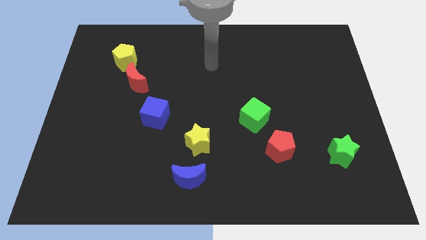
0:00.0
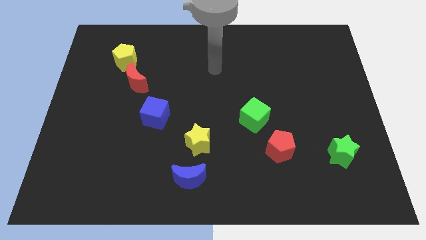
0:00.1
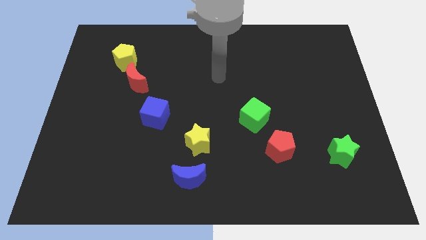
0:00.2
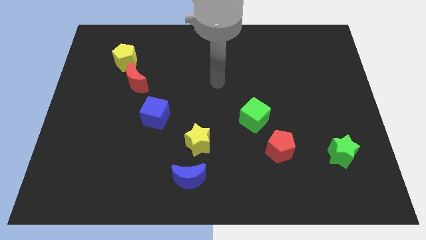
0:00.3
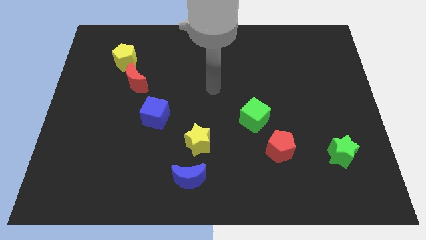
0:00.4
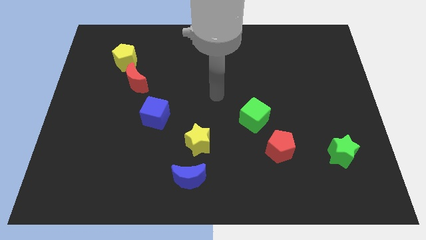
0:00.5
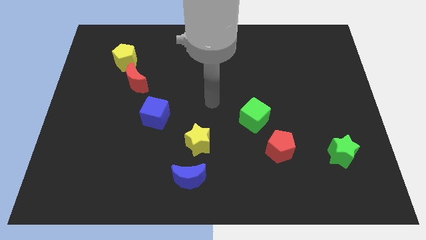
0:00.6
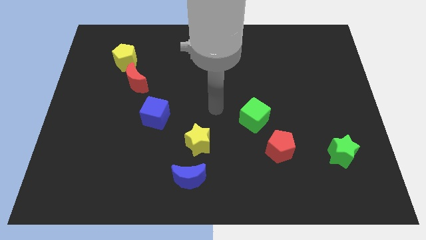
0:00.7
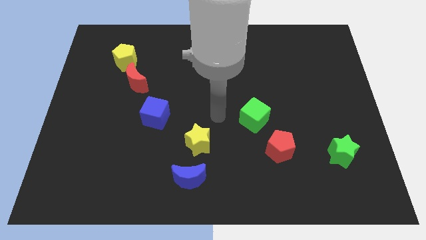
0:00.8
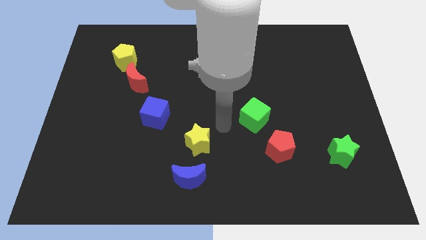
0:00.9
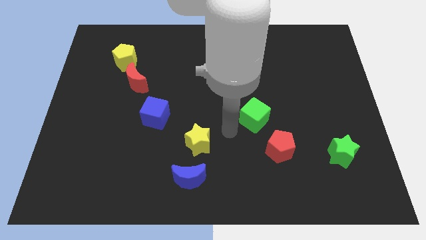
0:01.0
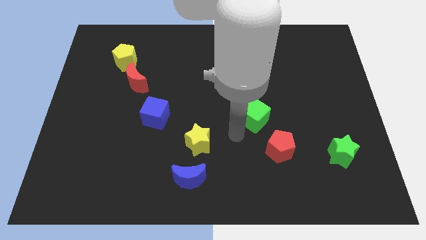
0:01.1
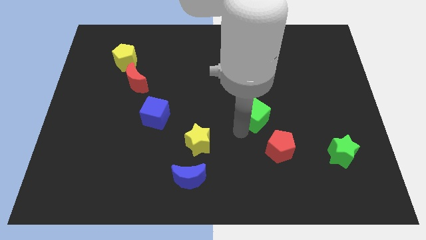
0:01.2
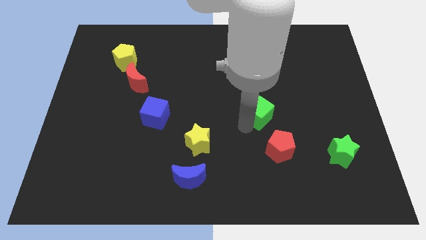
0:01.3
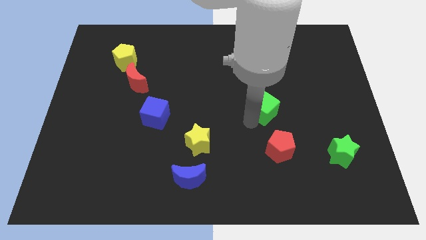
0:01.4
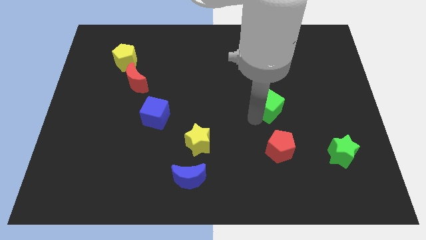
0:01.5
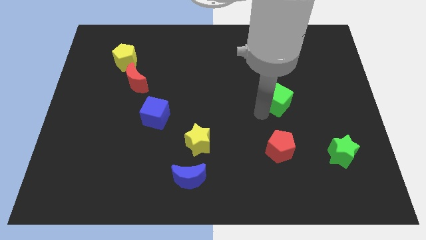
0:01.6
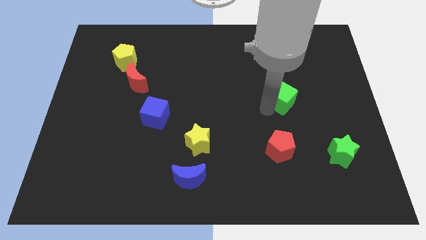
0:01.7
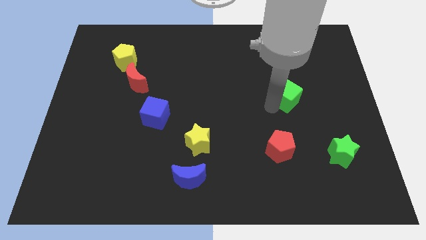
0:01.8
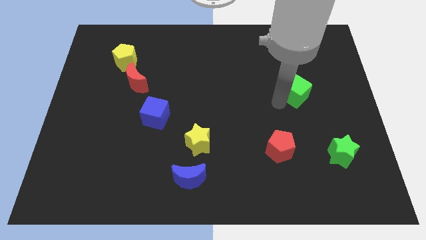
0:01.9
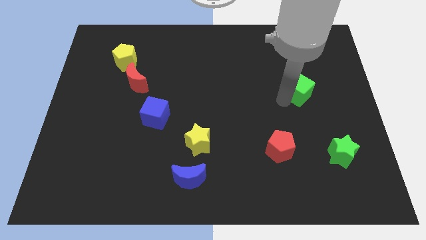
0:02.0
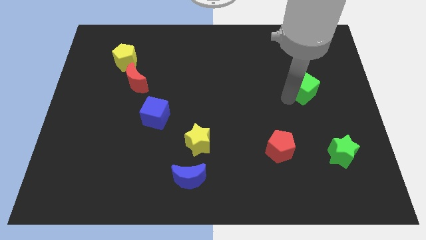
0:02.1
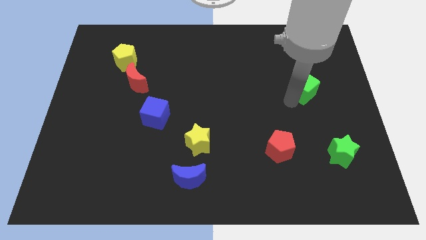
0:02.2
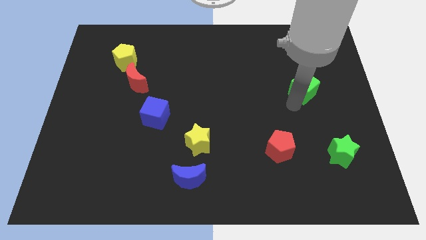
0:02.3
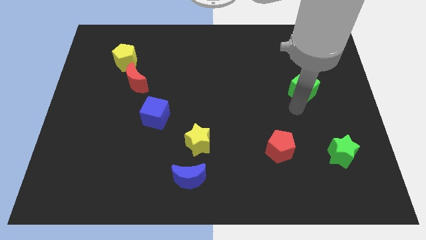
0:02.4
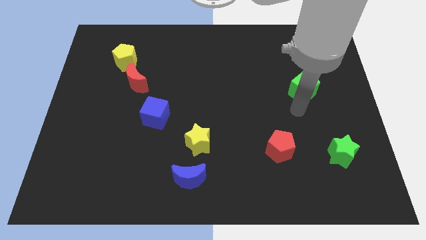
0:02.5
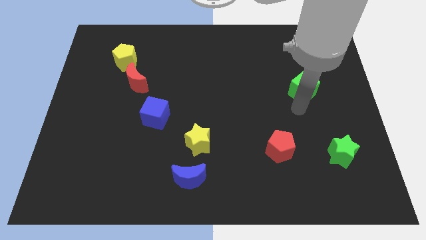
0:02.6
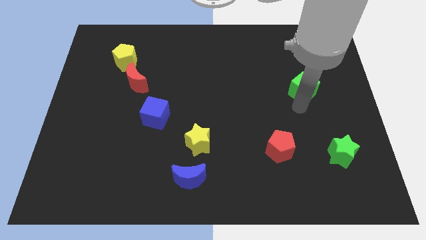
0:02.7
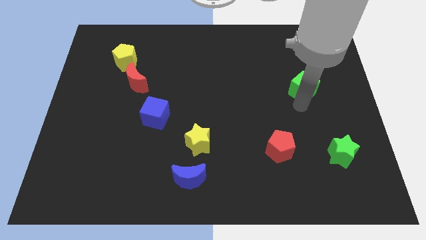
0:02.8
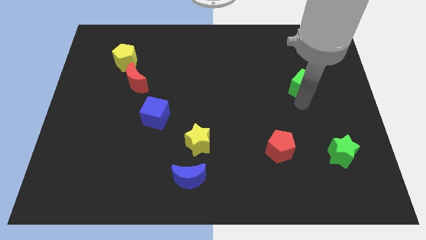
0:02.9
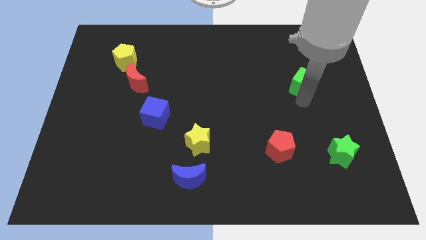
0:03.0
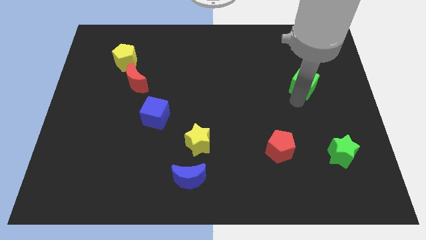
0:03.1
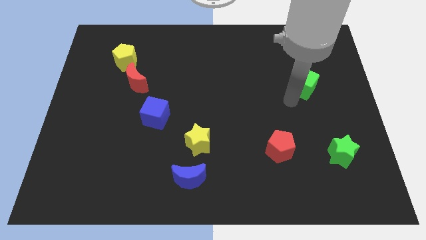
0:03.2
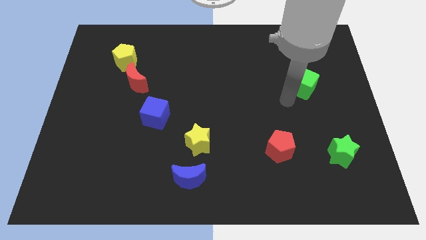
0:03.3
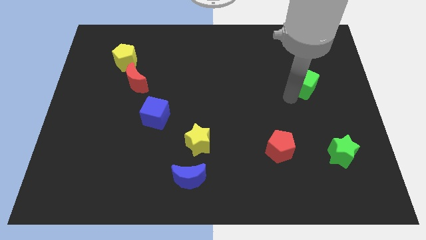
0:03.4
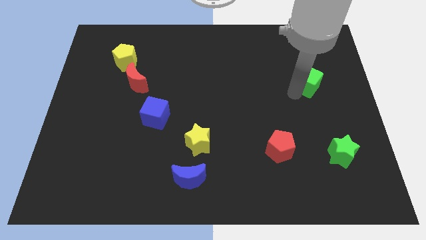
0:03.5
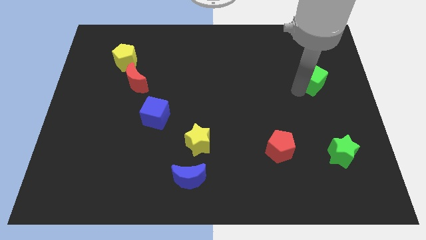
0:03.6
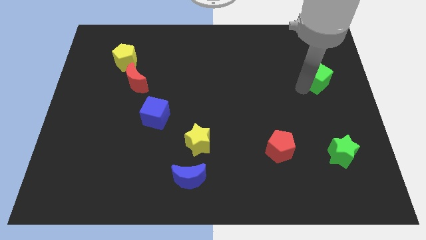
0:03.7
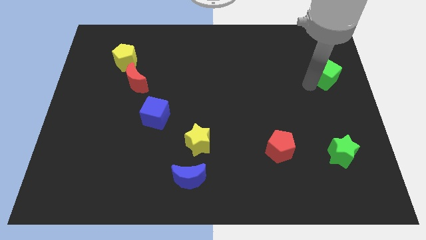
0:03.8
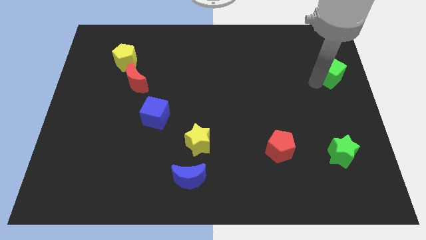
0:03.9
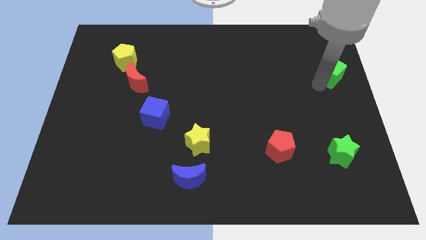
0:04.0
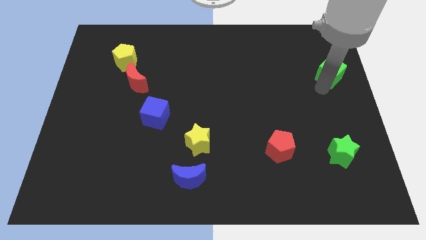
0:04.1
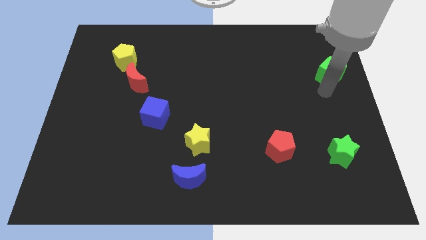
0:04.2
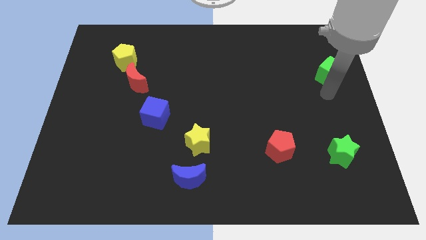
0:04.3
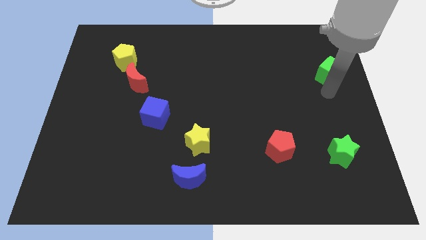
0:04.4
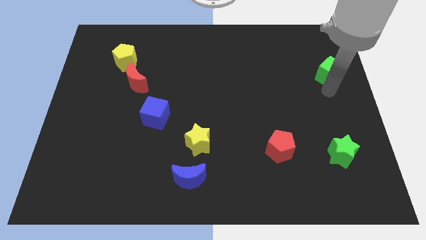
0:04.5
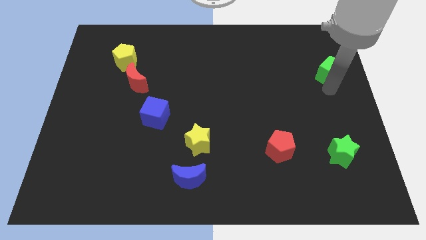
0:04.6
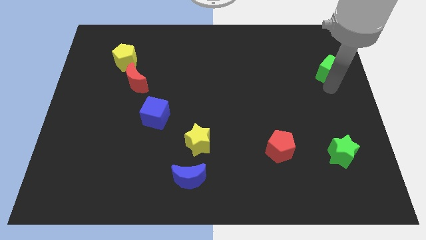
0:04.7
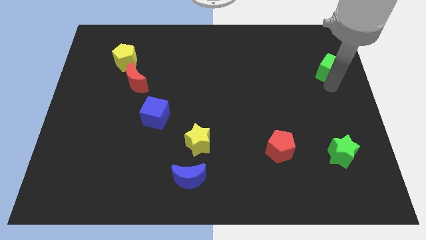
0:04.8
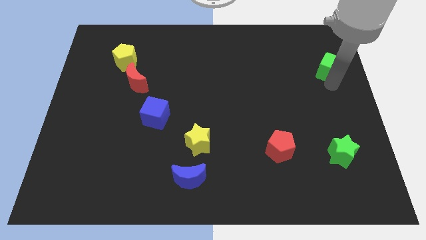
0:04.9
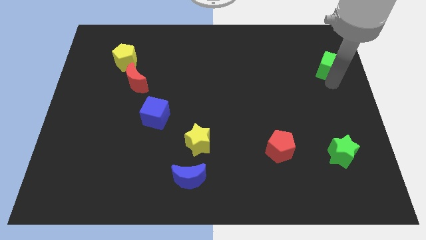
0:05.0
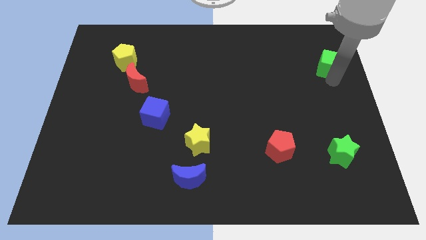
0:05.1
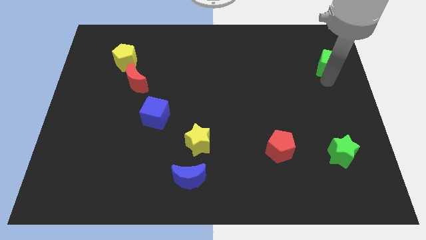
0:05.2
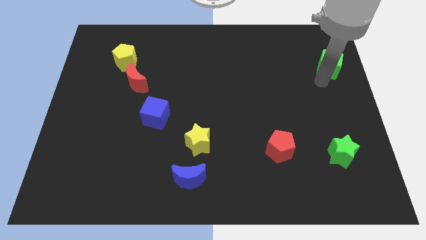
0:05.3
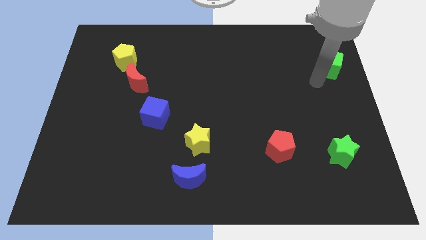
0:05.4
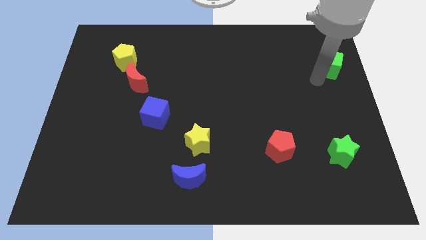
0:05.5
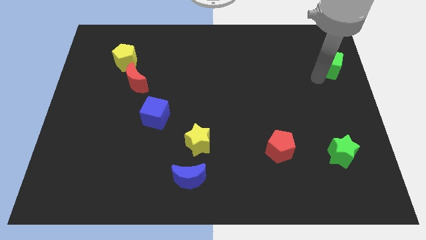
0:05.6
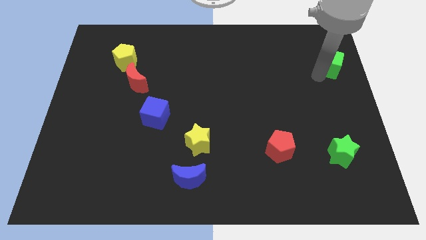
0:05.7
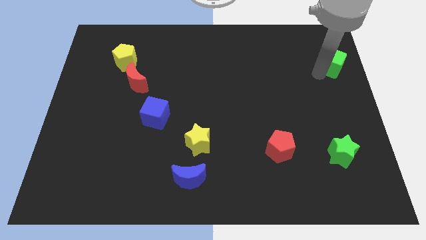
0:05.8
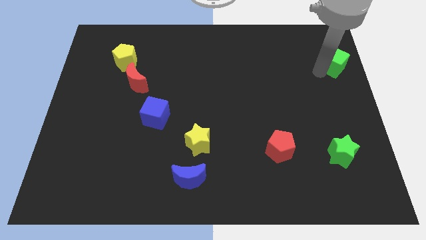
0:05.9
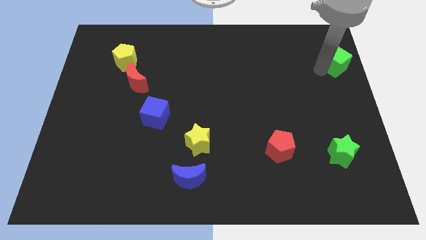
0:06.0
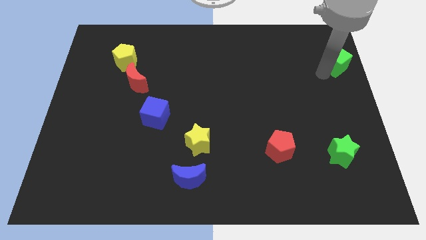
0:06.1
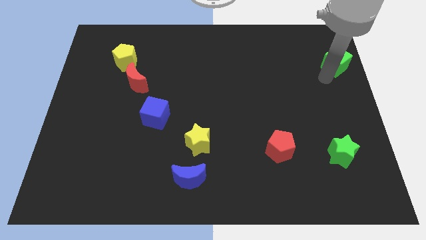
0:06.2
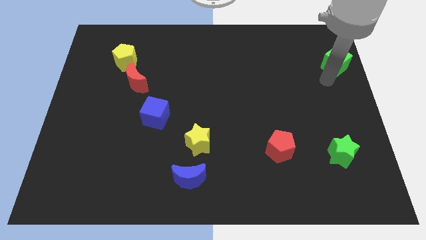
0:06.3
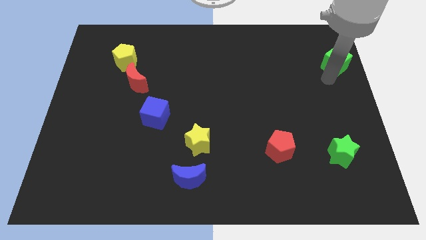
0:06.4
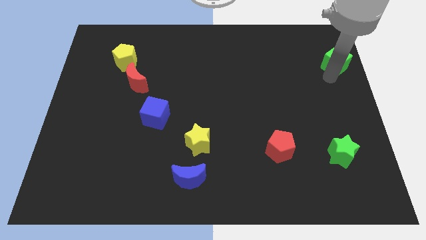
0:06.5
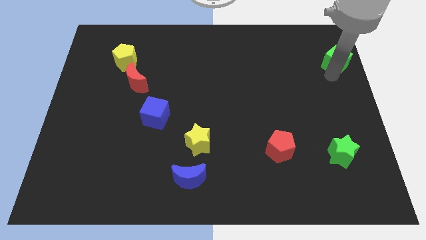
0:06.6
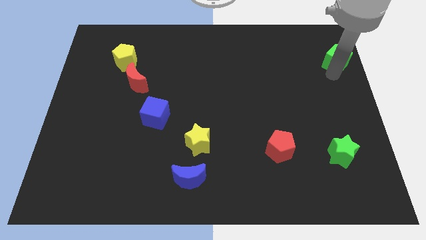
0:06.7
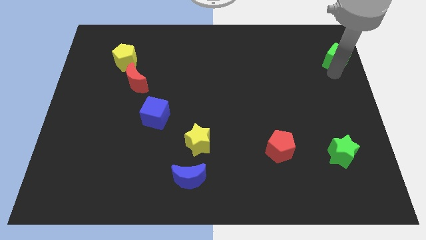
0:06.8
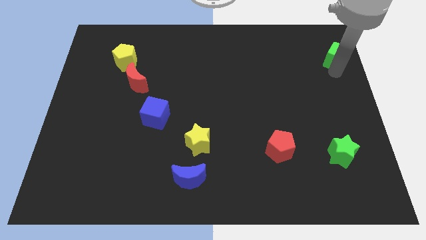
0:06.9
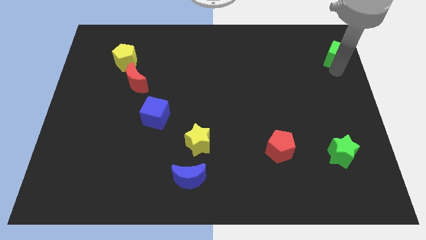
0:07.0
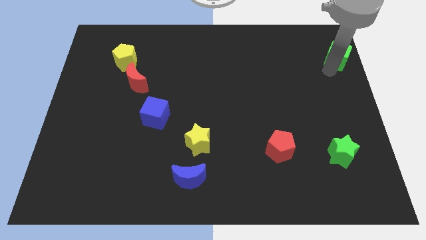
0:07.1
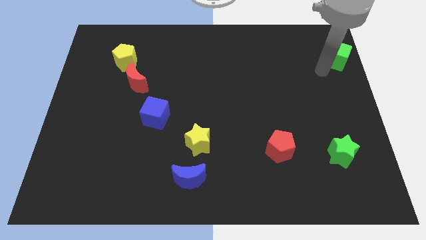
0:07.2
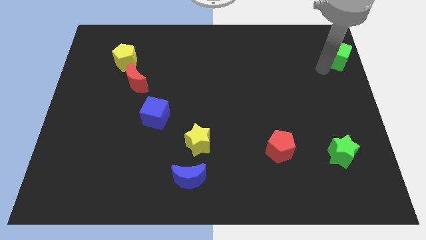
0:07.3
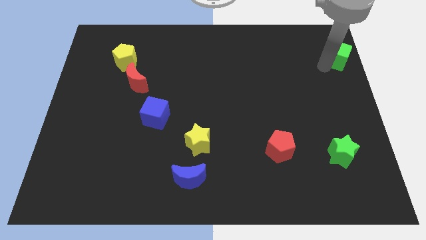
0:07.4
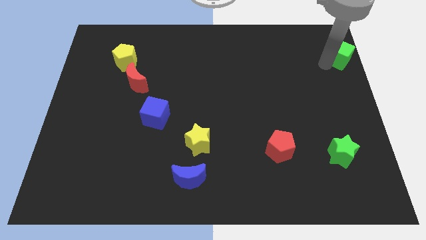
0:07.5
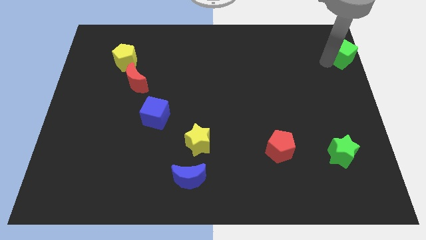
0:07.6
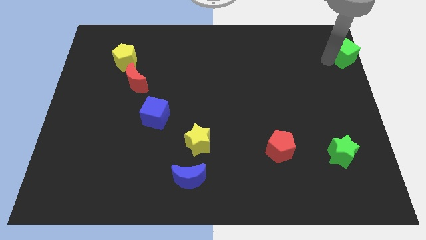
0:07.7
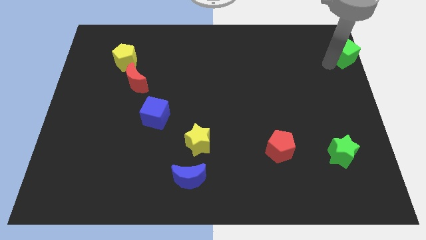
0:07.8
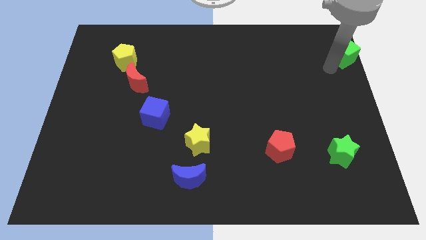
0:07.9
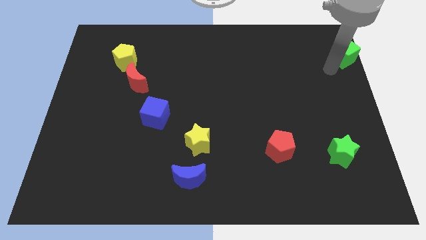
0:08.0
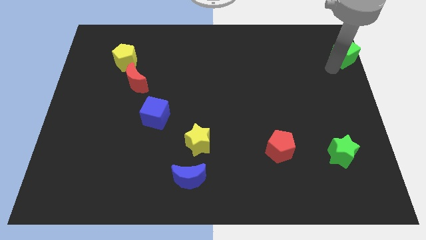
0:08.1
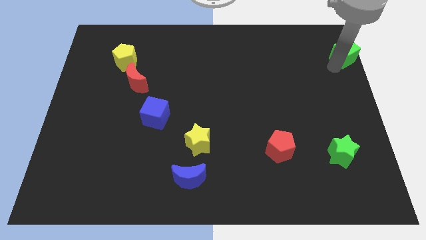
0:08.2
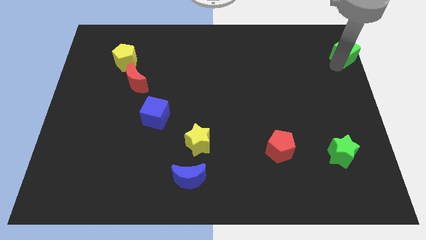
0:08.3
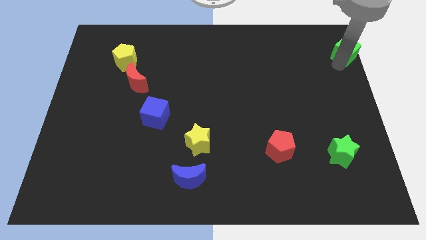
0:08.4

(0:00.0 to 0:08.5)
slide the green cube to the top right

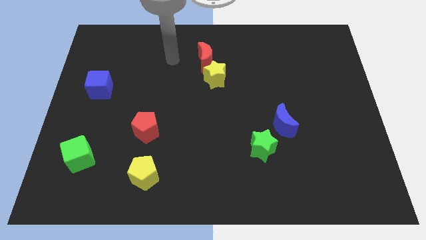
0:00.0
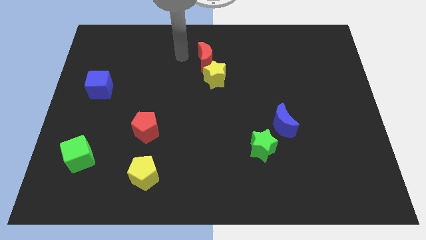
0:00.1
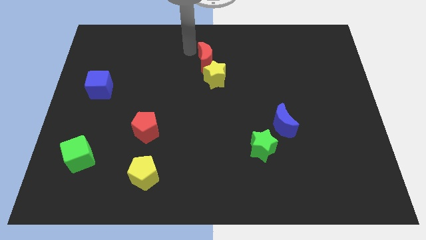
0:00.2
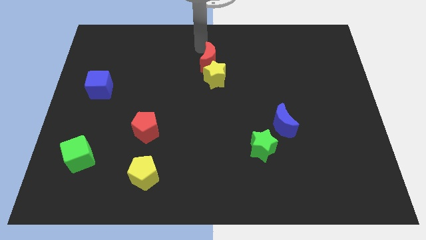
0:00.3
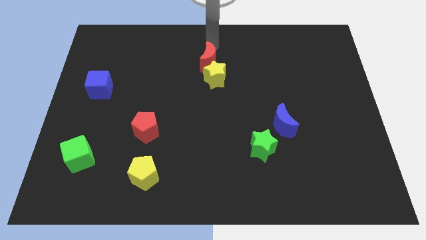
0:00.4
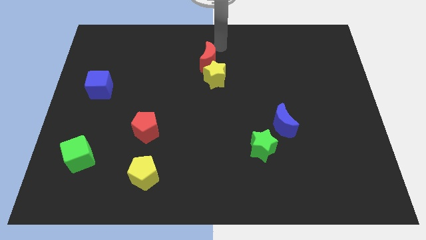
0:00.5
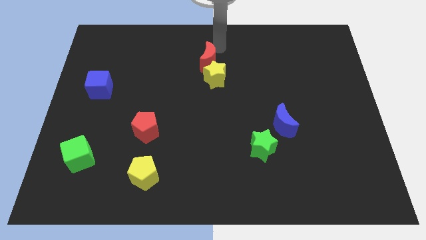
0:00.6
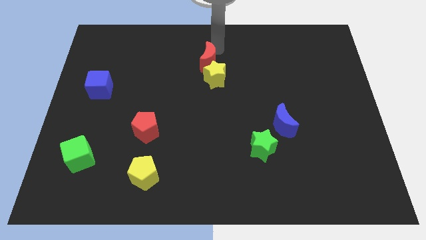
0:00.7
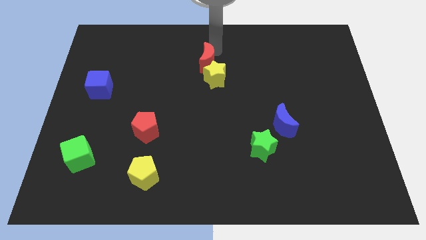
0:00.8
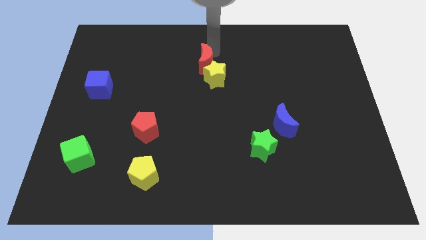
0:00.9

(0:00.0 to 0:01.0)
put the red moon to the middle of the board
